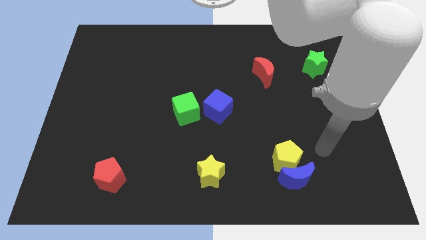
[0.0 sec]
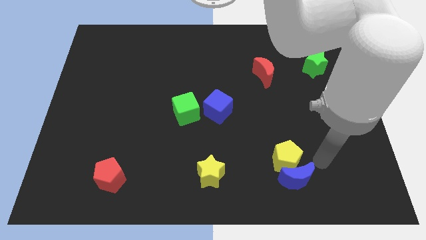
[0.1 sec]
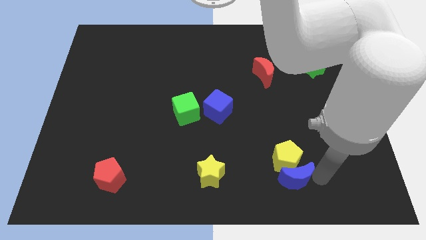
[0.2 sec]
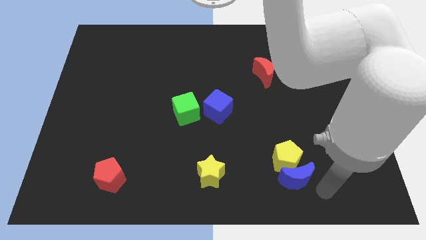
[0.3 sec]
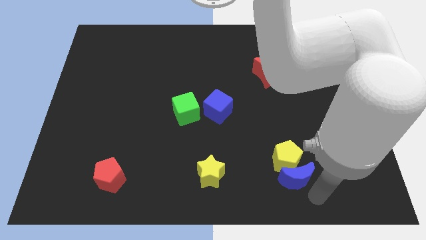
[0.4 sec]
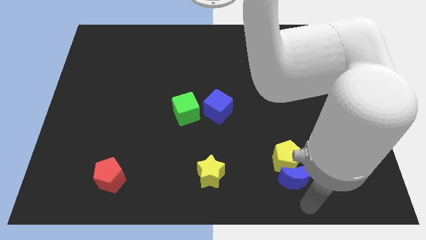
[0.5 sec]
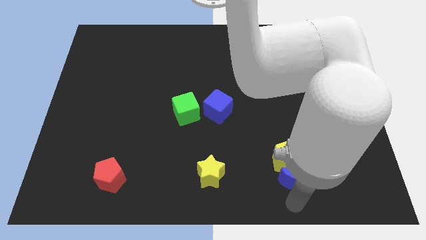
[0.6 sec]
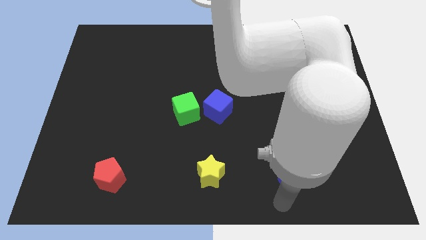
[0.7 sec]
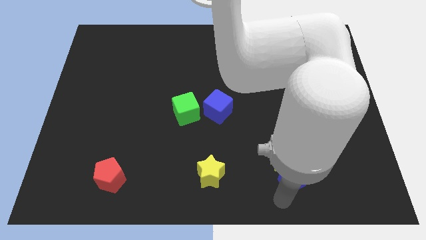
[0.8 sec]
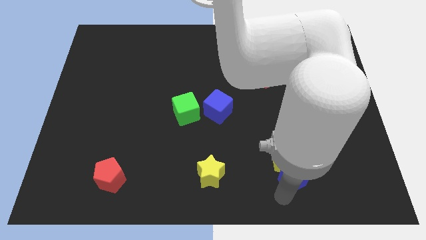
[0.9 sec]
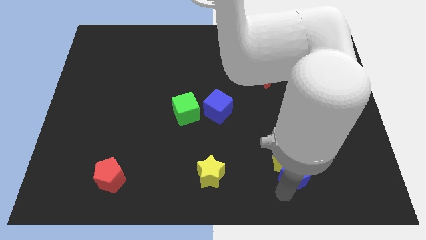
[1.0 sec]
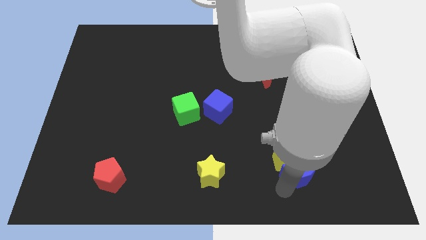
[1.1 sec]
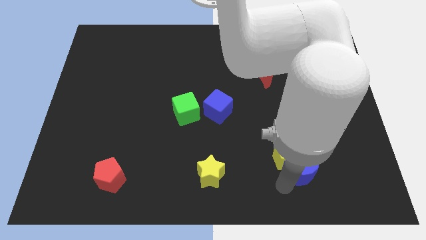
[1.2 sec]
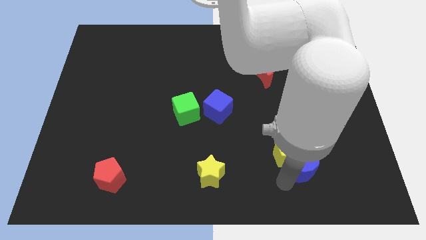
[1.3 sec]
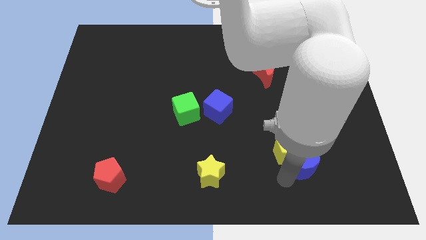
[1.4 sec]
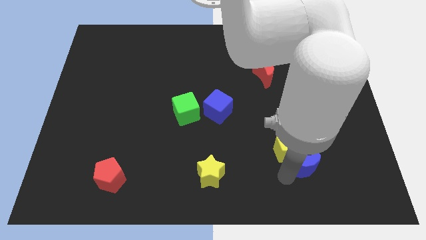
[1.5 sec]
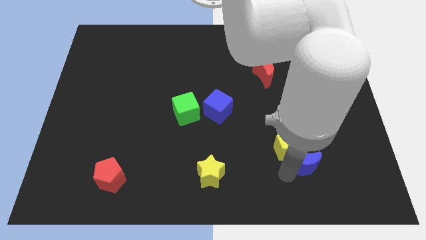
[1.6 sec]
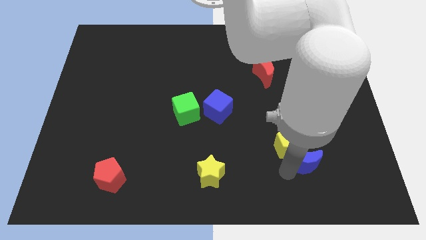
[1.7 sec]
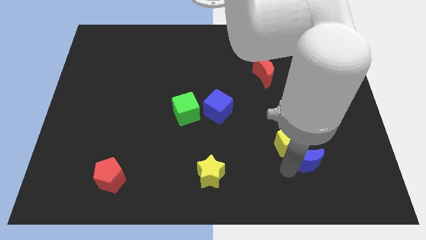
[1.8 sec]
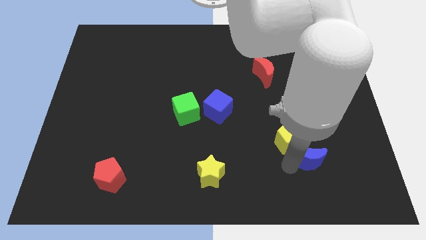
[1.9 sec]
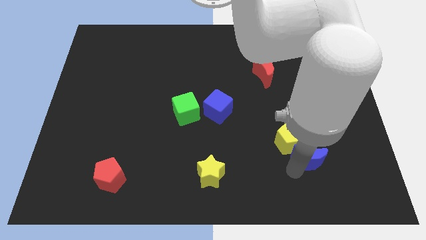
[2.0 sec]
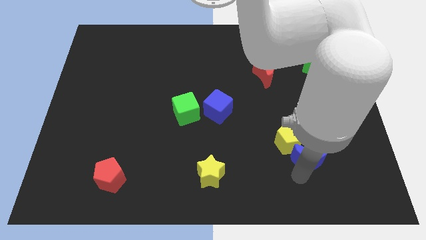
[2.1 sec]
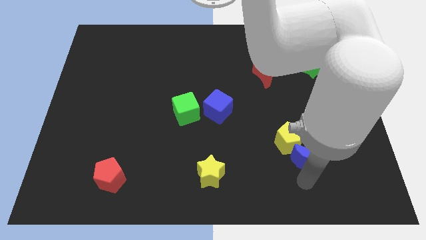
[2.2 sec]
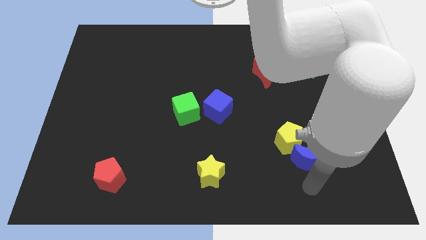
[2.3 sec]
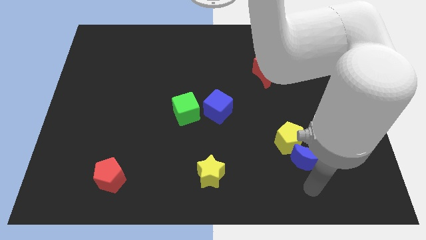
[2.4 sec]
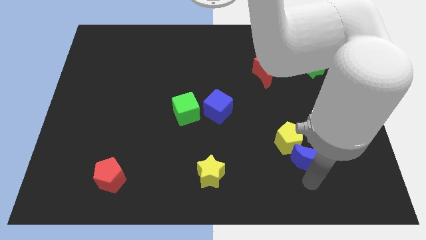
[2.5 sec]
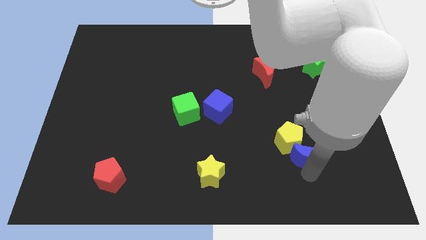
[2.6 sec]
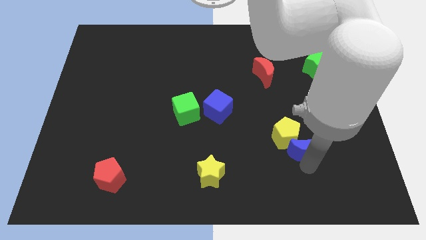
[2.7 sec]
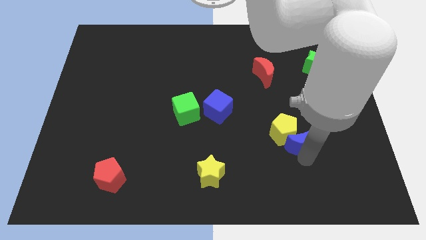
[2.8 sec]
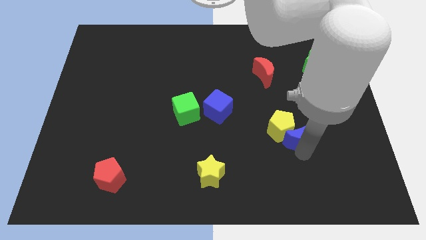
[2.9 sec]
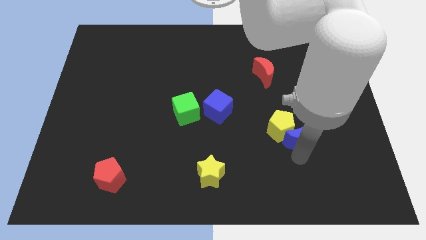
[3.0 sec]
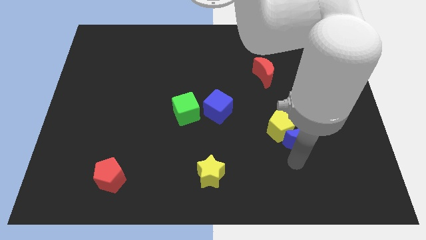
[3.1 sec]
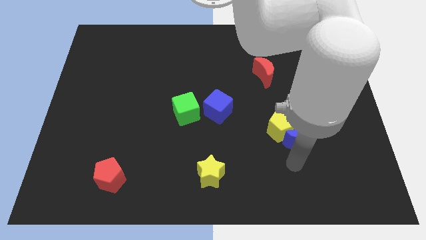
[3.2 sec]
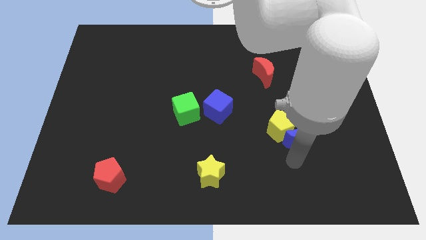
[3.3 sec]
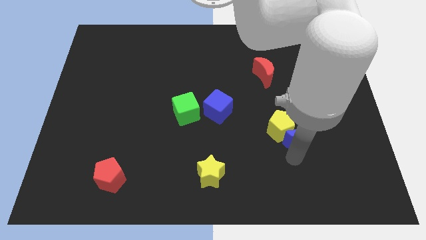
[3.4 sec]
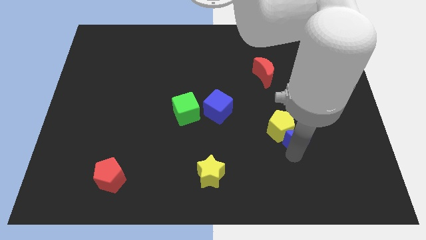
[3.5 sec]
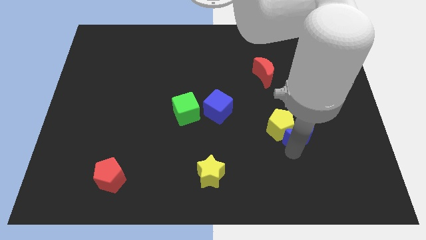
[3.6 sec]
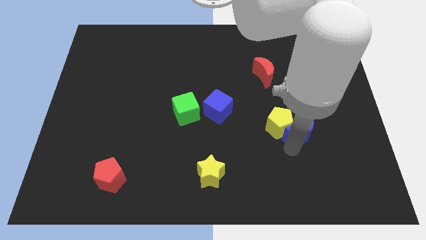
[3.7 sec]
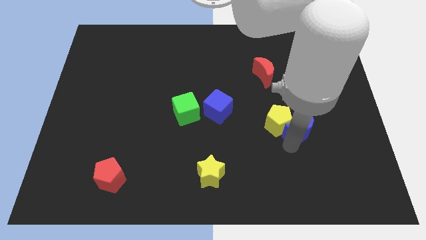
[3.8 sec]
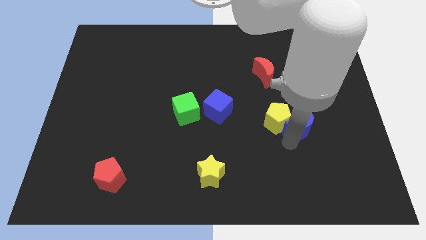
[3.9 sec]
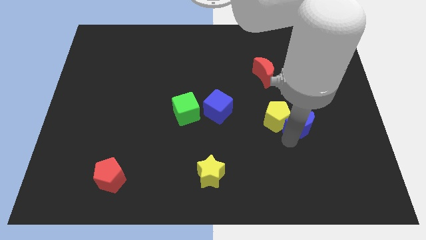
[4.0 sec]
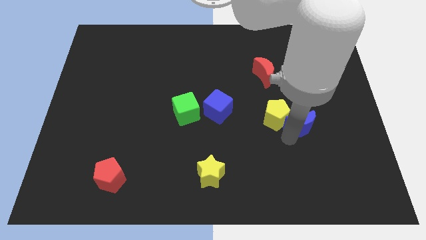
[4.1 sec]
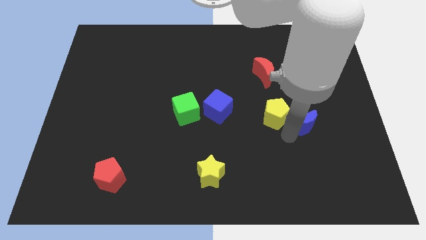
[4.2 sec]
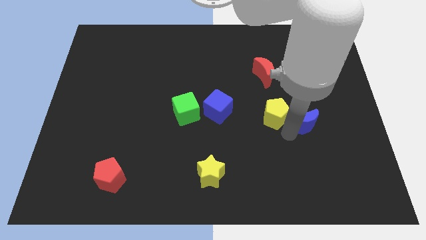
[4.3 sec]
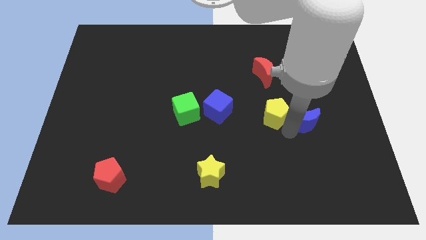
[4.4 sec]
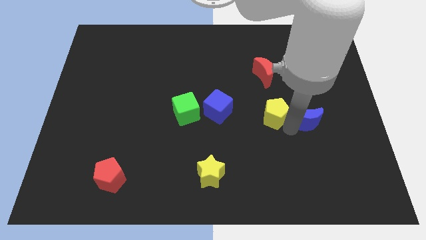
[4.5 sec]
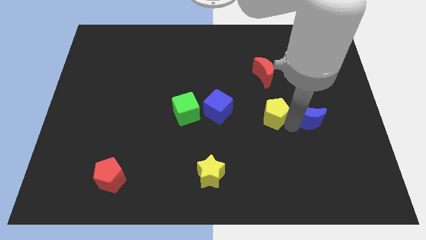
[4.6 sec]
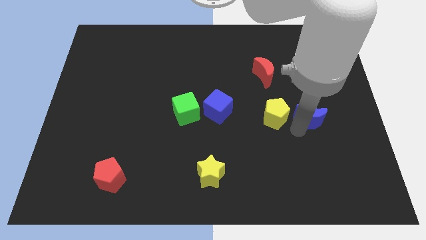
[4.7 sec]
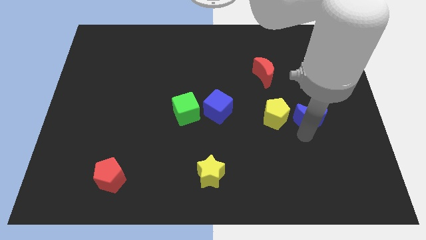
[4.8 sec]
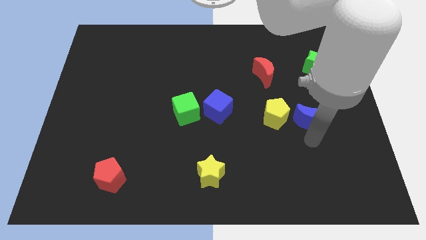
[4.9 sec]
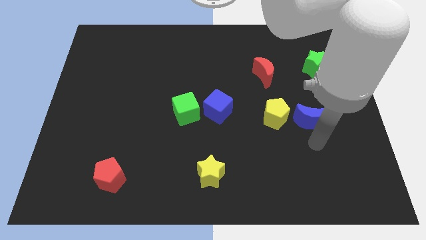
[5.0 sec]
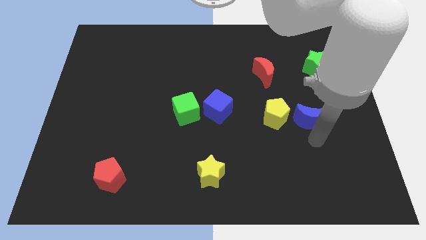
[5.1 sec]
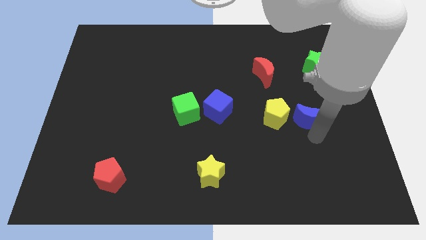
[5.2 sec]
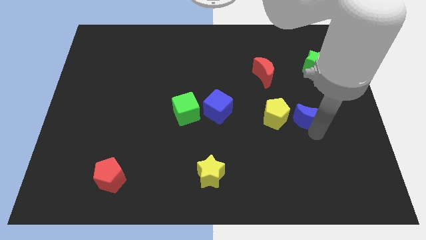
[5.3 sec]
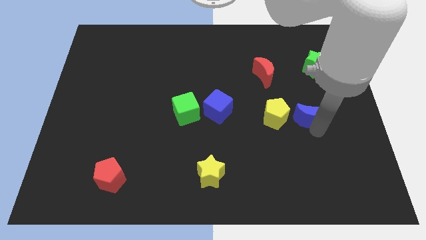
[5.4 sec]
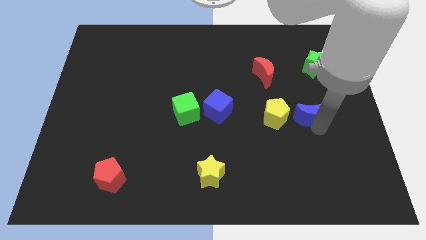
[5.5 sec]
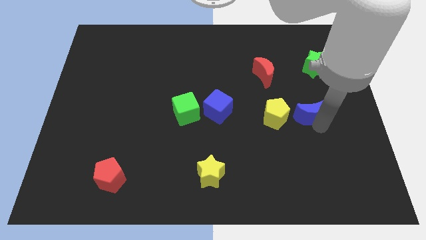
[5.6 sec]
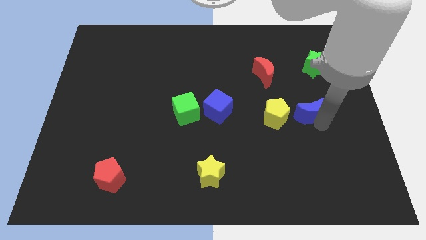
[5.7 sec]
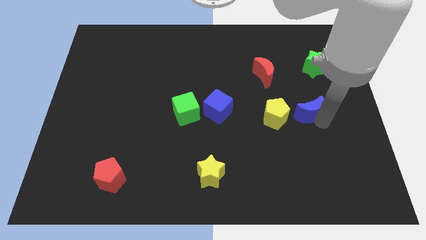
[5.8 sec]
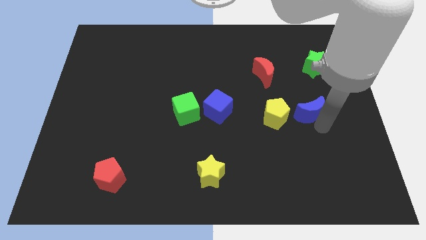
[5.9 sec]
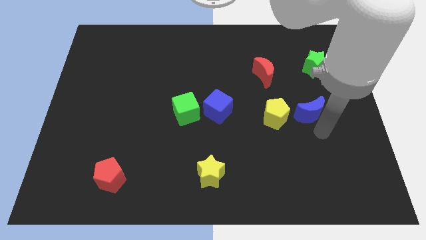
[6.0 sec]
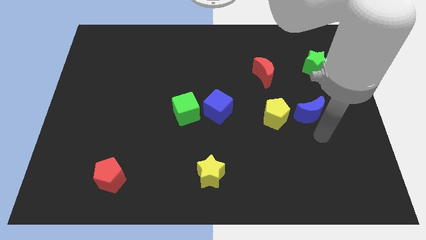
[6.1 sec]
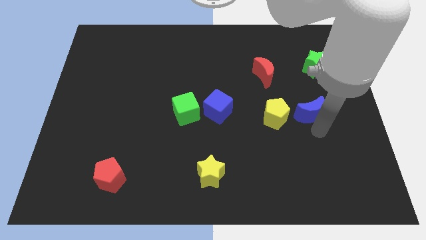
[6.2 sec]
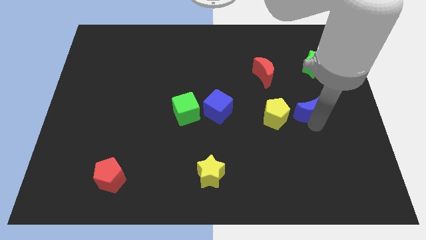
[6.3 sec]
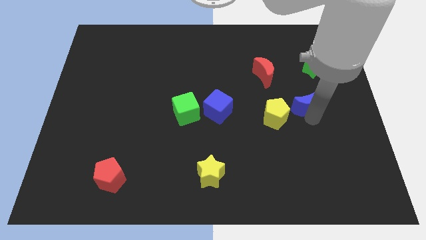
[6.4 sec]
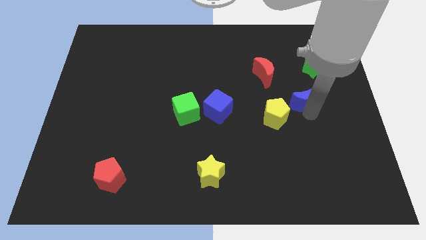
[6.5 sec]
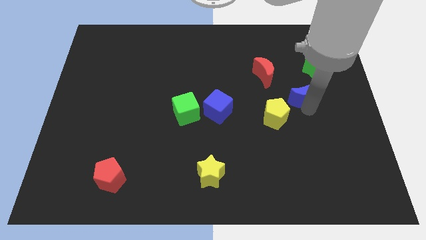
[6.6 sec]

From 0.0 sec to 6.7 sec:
move the blue moon up

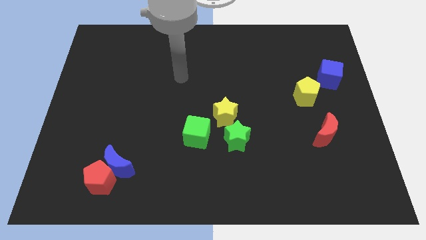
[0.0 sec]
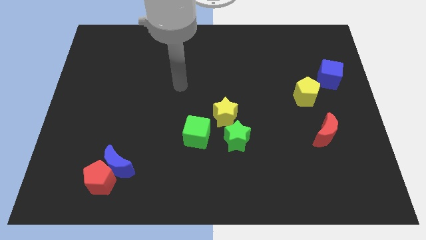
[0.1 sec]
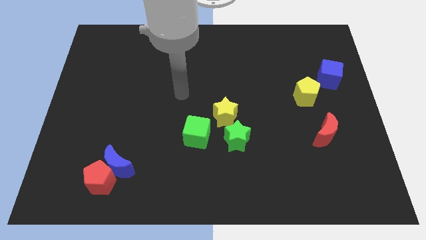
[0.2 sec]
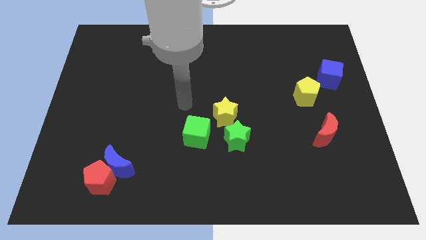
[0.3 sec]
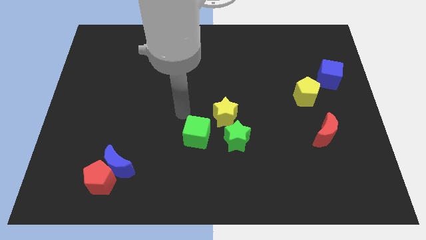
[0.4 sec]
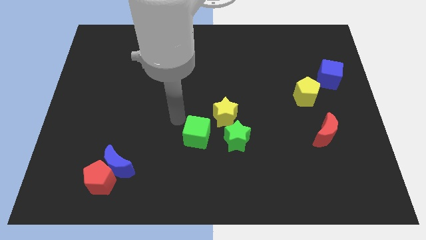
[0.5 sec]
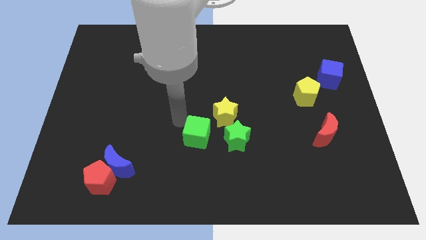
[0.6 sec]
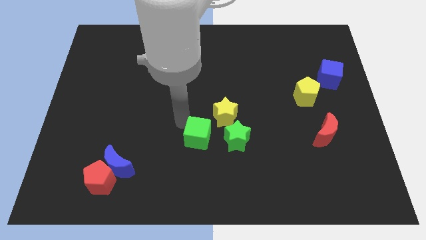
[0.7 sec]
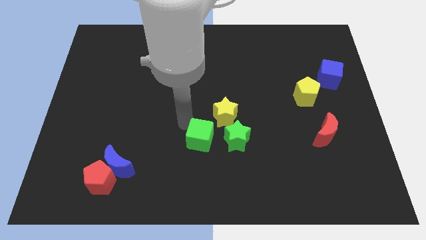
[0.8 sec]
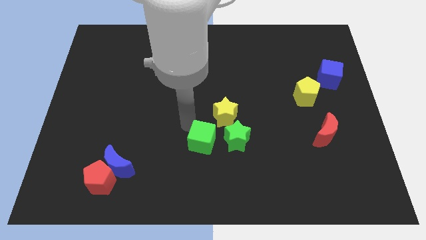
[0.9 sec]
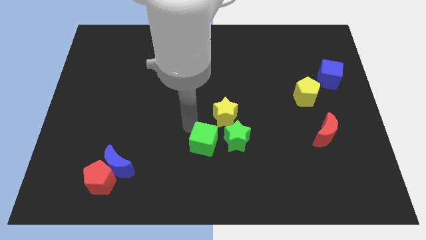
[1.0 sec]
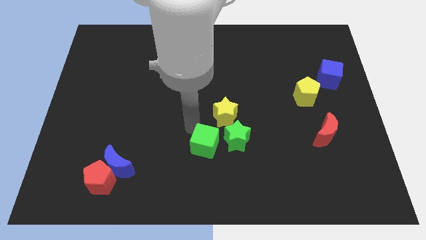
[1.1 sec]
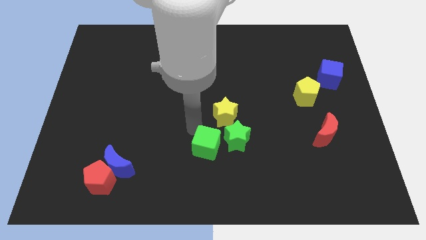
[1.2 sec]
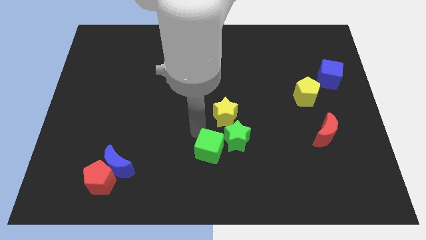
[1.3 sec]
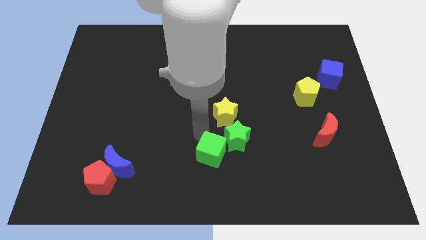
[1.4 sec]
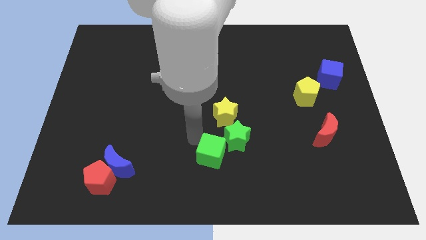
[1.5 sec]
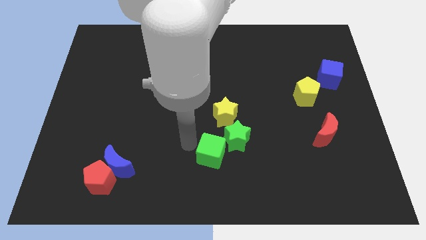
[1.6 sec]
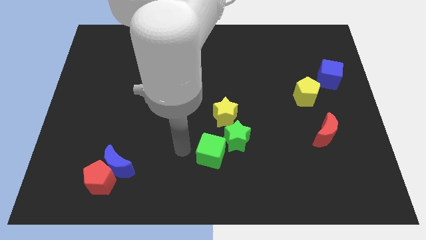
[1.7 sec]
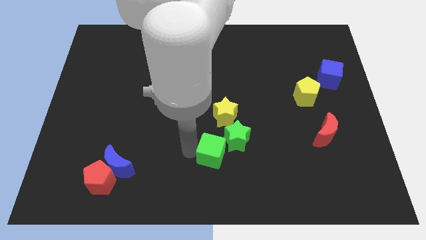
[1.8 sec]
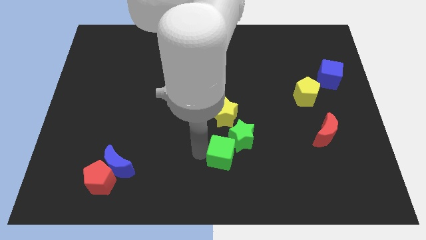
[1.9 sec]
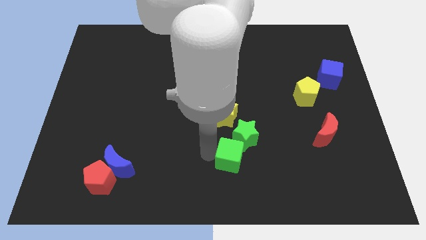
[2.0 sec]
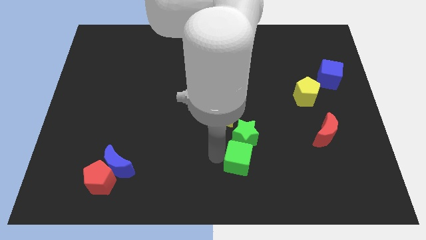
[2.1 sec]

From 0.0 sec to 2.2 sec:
slightly slide the green cube right
